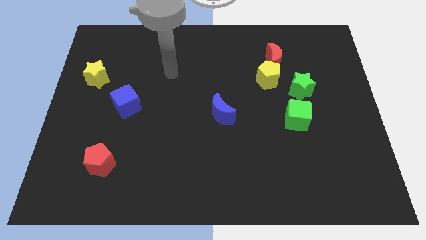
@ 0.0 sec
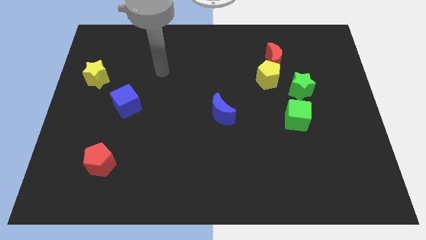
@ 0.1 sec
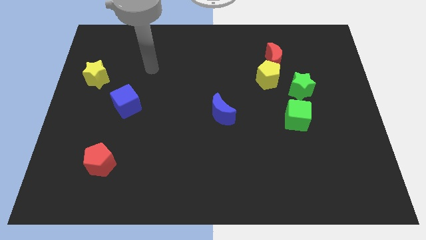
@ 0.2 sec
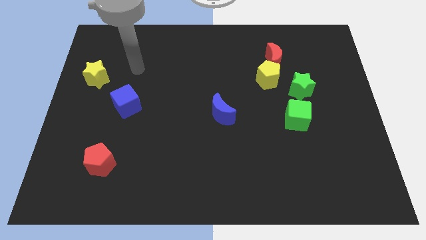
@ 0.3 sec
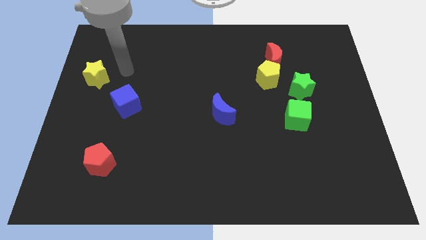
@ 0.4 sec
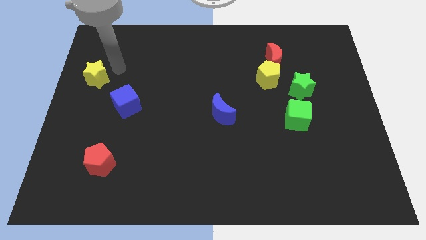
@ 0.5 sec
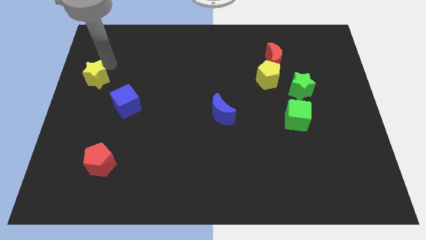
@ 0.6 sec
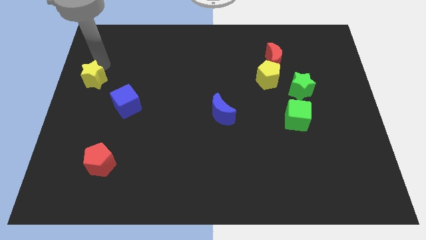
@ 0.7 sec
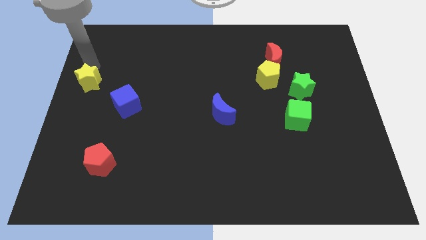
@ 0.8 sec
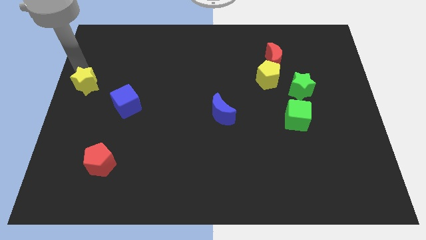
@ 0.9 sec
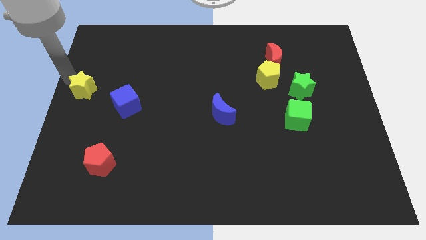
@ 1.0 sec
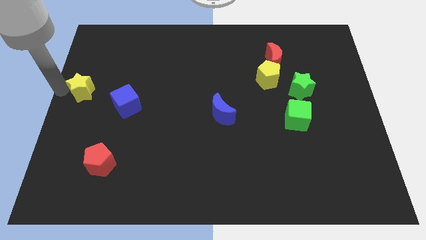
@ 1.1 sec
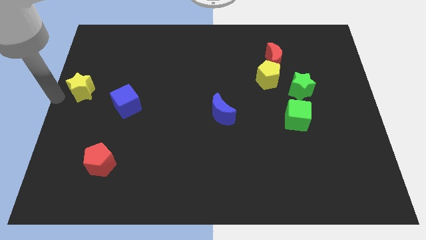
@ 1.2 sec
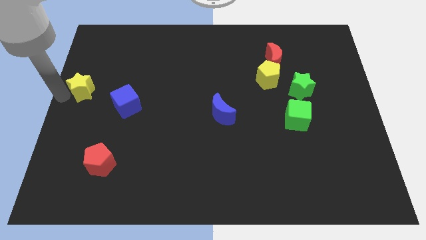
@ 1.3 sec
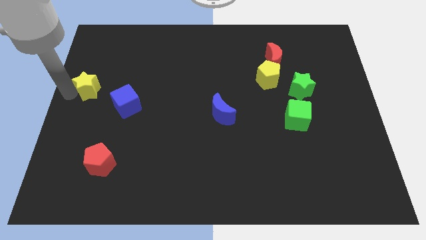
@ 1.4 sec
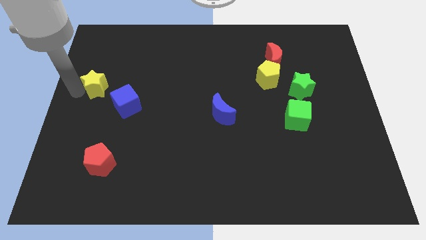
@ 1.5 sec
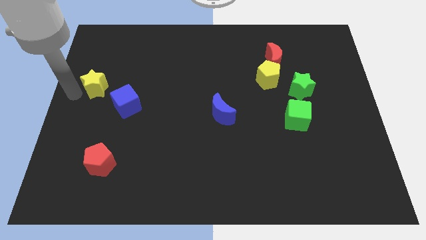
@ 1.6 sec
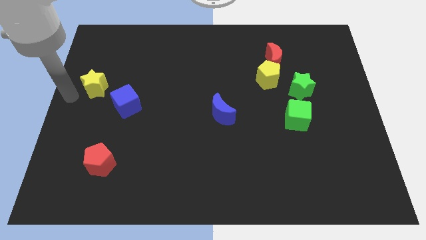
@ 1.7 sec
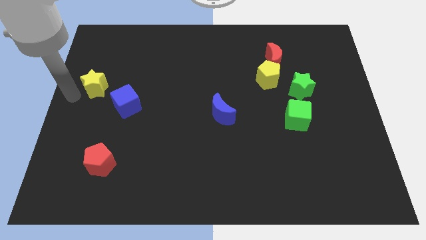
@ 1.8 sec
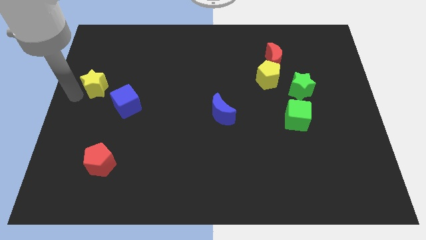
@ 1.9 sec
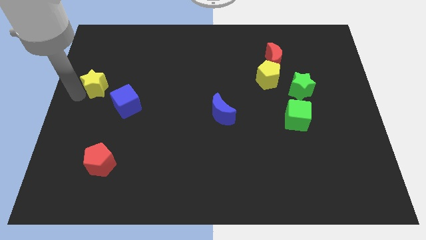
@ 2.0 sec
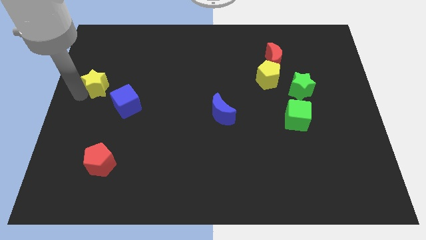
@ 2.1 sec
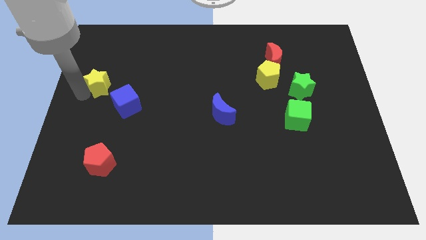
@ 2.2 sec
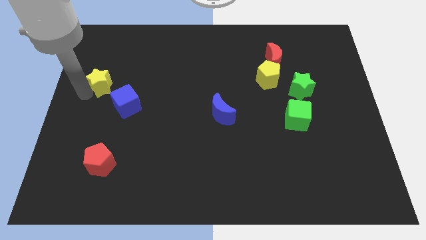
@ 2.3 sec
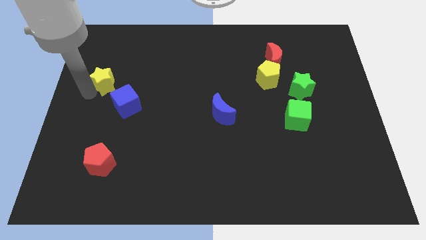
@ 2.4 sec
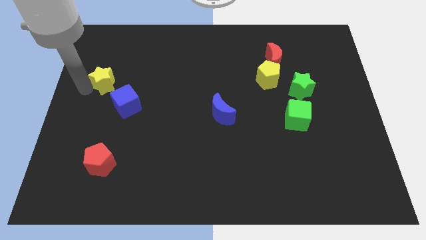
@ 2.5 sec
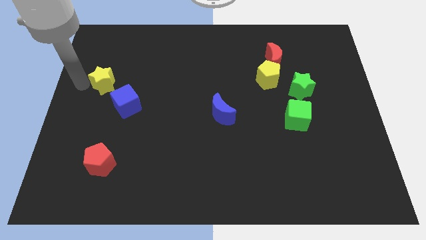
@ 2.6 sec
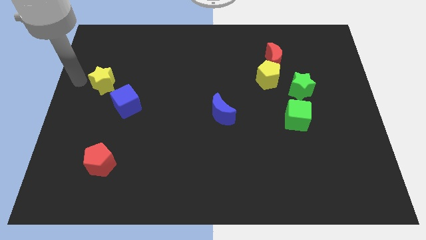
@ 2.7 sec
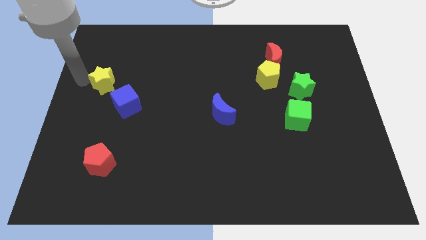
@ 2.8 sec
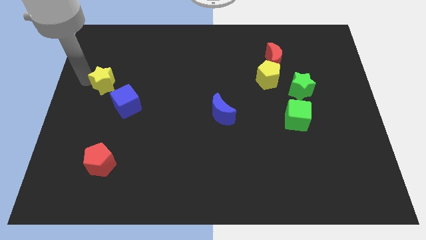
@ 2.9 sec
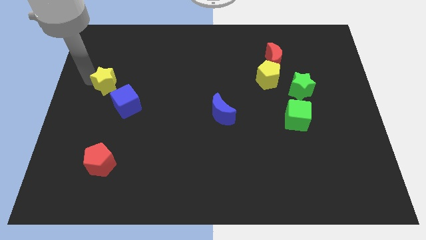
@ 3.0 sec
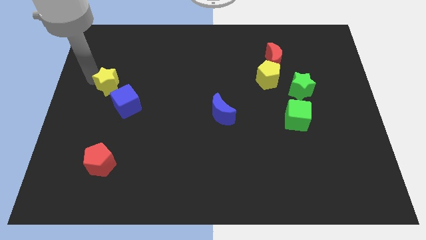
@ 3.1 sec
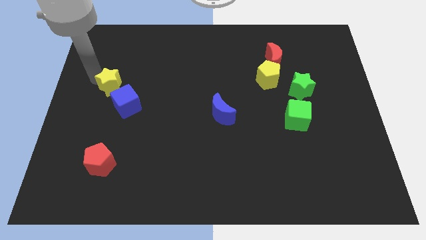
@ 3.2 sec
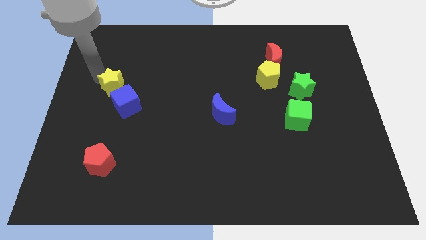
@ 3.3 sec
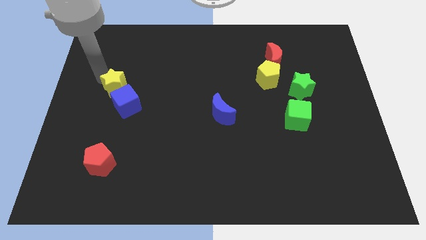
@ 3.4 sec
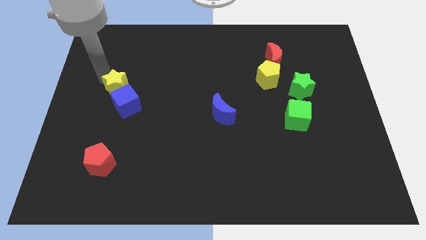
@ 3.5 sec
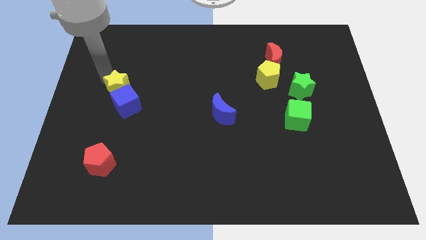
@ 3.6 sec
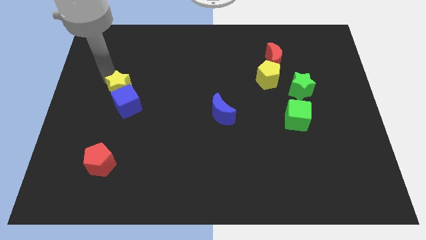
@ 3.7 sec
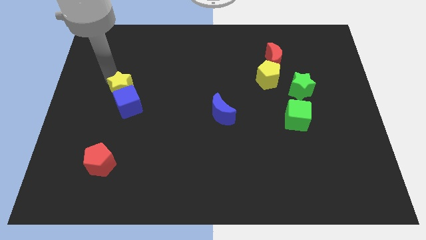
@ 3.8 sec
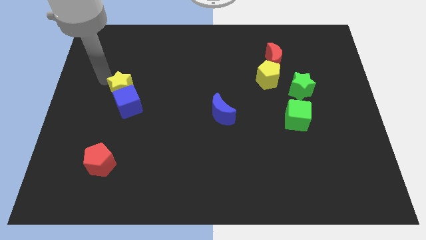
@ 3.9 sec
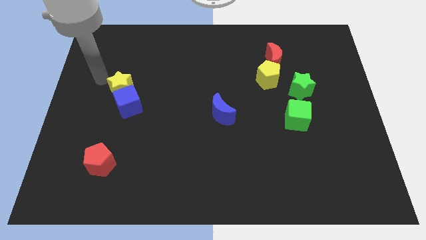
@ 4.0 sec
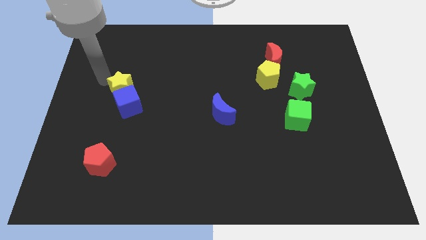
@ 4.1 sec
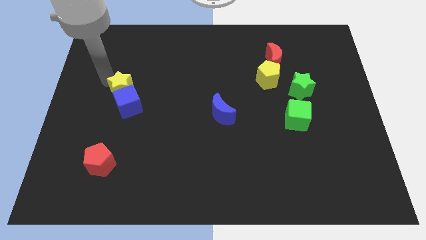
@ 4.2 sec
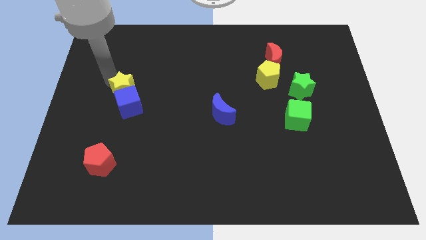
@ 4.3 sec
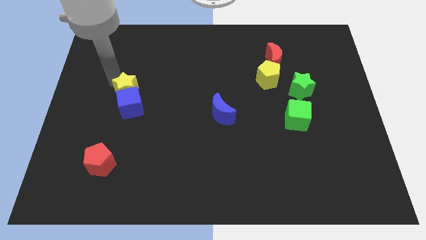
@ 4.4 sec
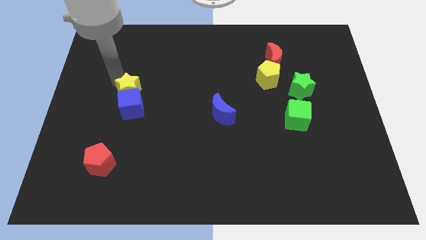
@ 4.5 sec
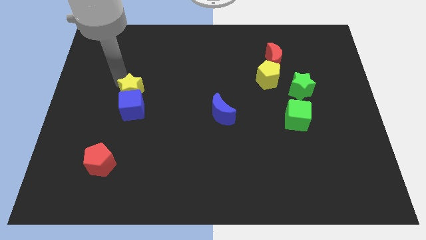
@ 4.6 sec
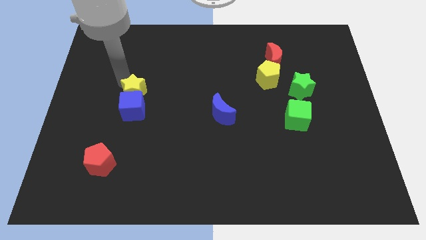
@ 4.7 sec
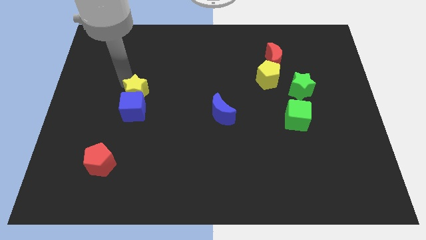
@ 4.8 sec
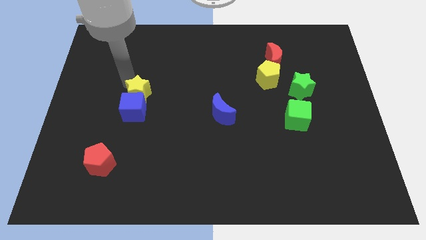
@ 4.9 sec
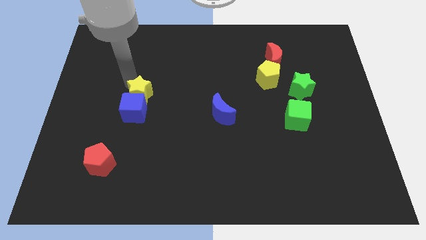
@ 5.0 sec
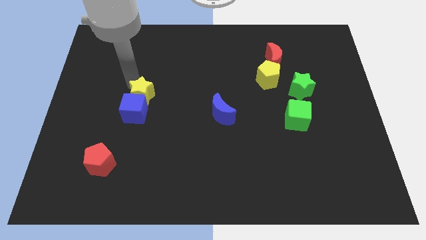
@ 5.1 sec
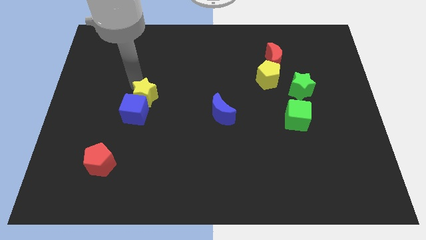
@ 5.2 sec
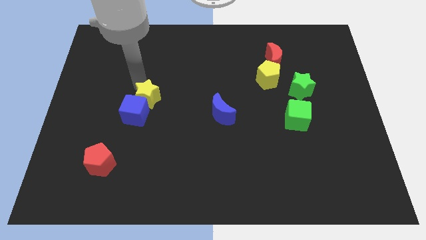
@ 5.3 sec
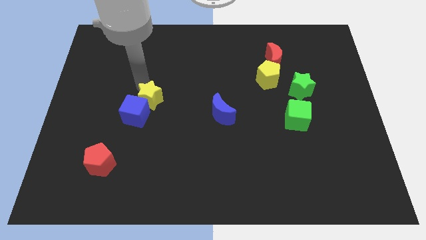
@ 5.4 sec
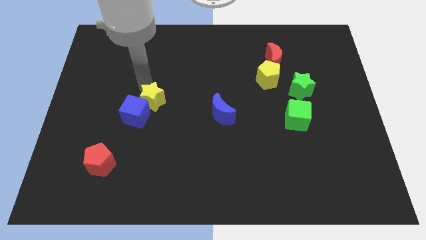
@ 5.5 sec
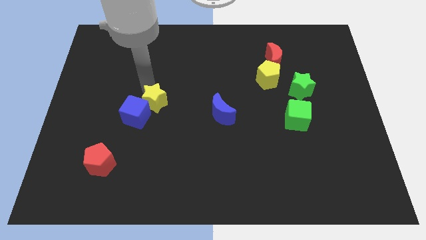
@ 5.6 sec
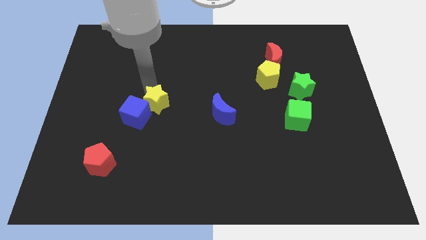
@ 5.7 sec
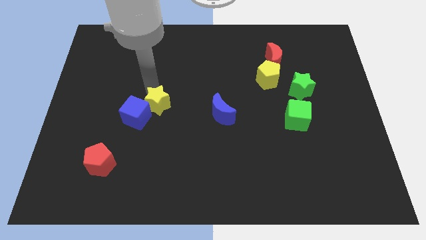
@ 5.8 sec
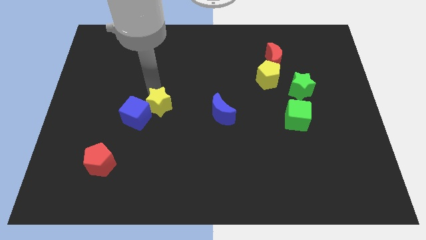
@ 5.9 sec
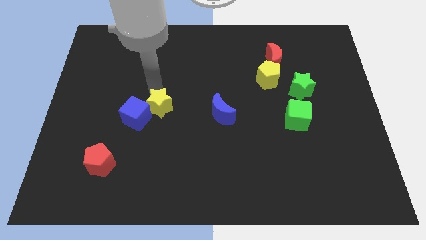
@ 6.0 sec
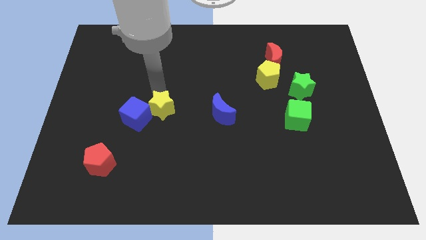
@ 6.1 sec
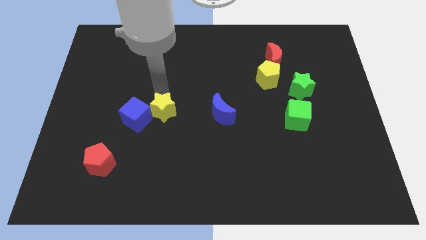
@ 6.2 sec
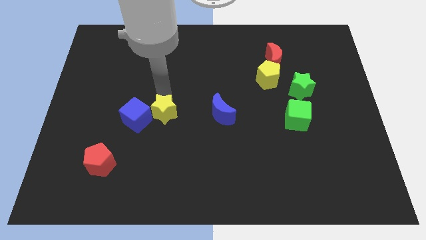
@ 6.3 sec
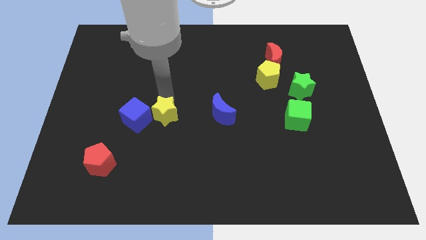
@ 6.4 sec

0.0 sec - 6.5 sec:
push the yellow star down and then to the right

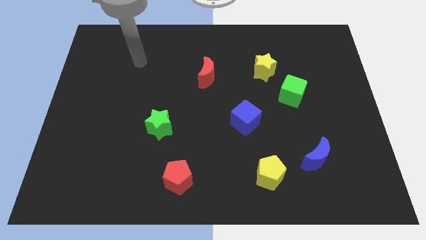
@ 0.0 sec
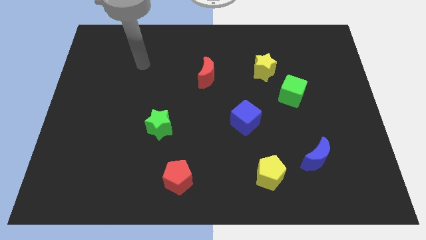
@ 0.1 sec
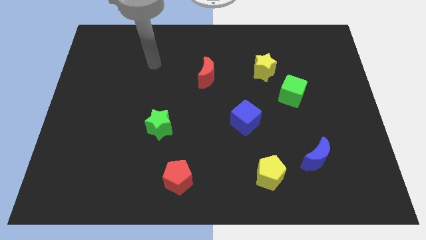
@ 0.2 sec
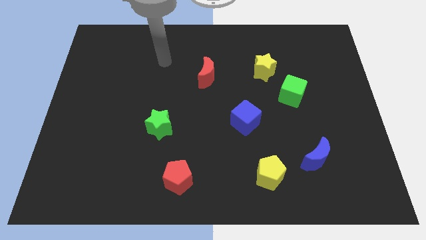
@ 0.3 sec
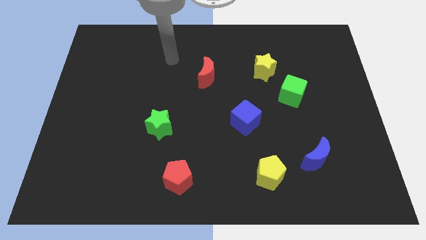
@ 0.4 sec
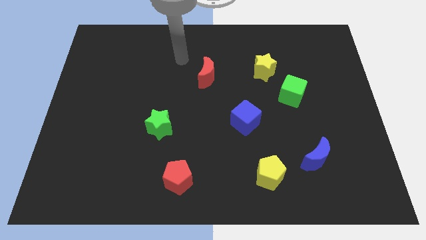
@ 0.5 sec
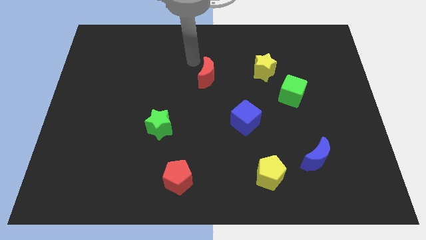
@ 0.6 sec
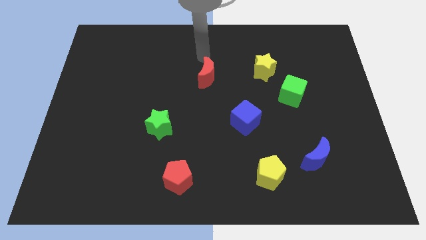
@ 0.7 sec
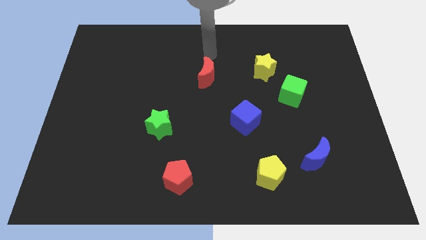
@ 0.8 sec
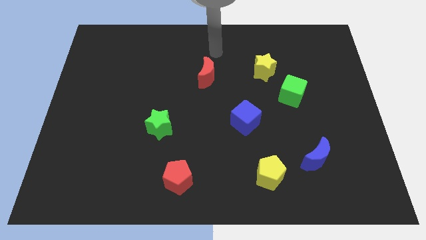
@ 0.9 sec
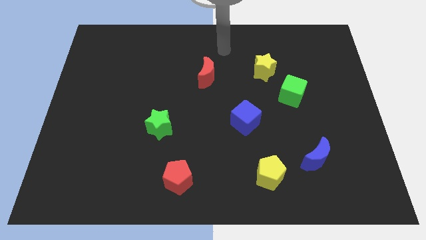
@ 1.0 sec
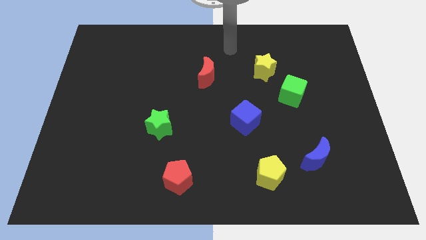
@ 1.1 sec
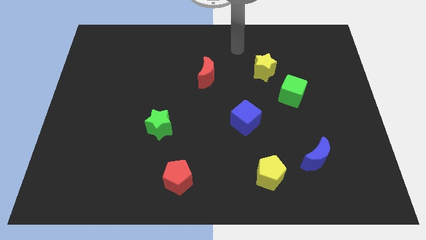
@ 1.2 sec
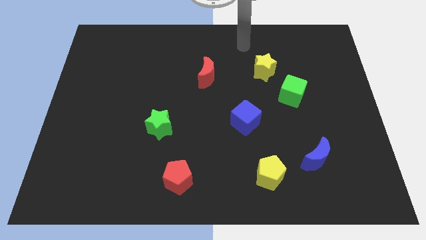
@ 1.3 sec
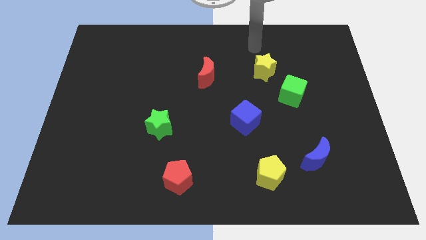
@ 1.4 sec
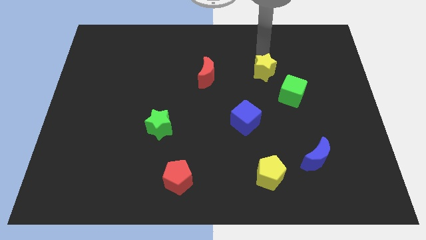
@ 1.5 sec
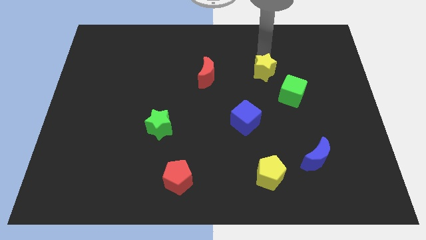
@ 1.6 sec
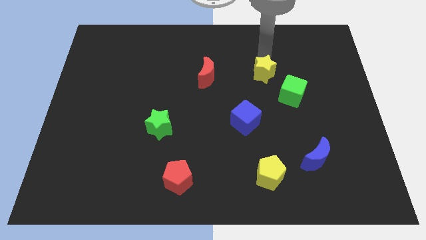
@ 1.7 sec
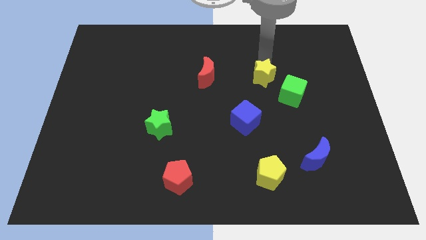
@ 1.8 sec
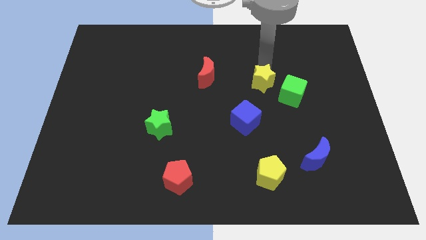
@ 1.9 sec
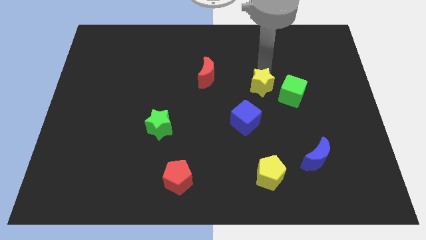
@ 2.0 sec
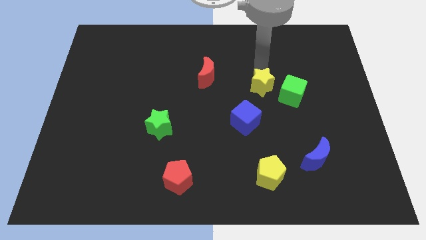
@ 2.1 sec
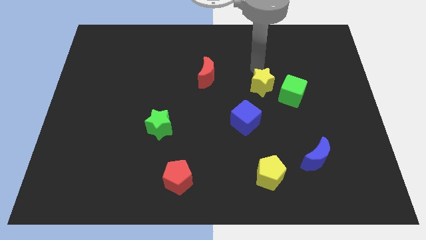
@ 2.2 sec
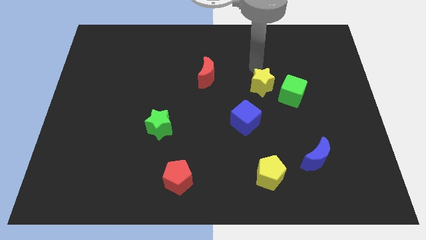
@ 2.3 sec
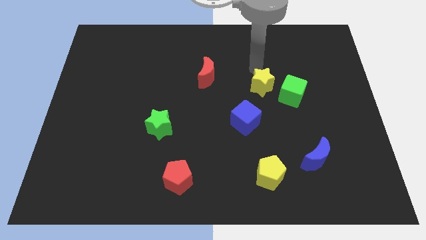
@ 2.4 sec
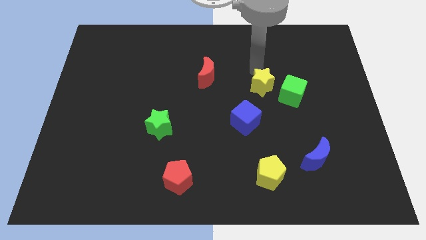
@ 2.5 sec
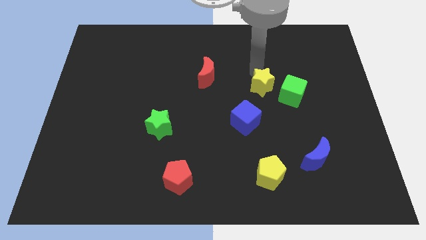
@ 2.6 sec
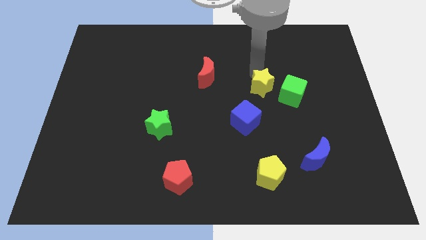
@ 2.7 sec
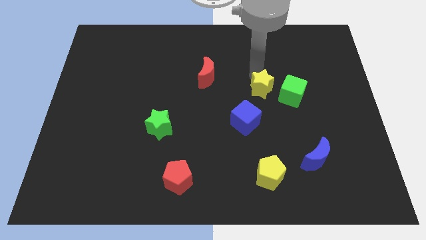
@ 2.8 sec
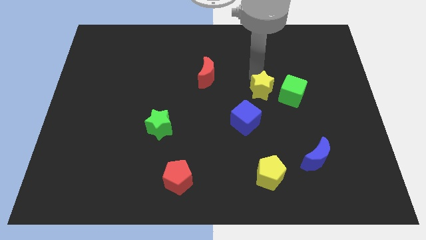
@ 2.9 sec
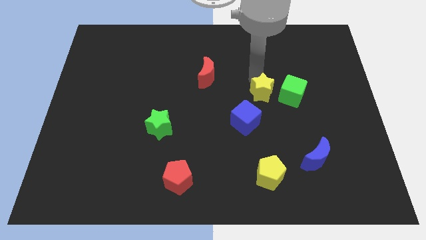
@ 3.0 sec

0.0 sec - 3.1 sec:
push the yellow star a little bit down
